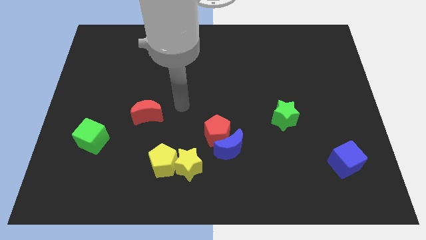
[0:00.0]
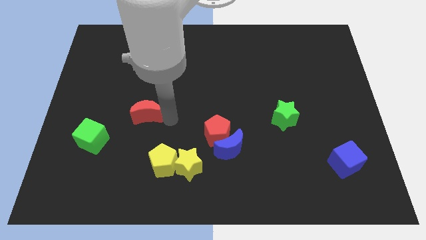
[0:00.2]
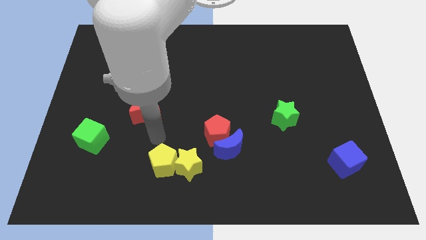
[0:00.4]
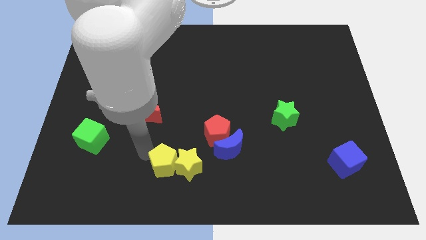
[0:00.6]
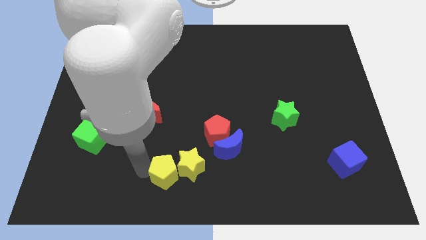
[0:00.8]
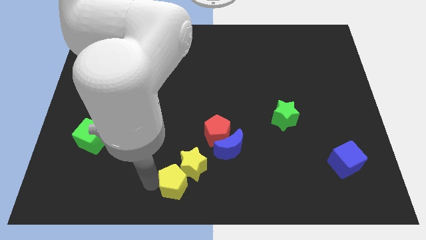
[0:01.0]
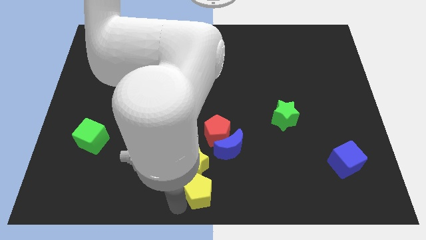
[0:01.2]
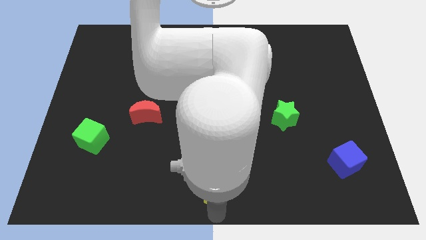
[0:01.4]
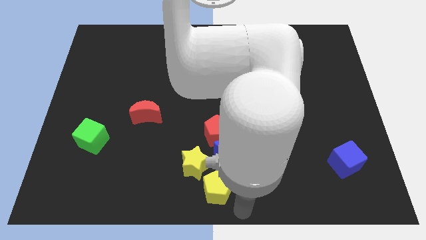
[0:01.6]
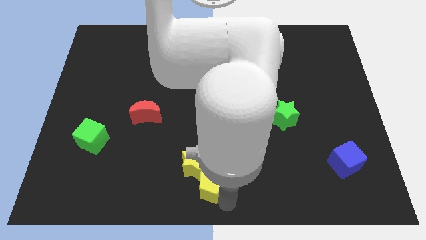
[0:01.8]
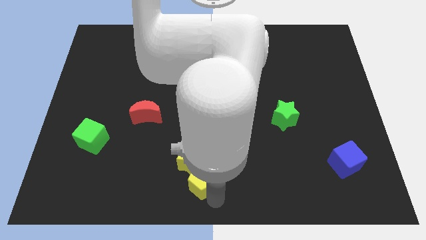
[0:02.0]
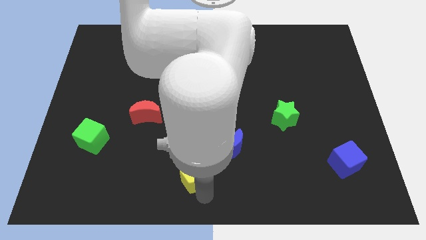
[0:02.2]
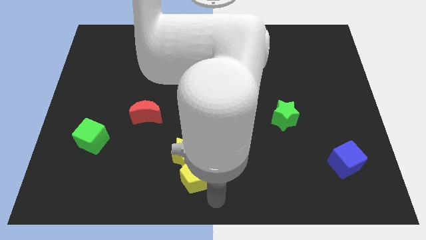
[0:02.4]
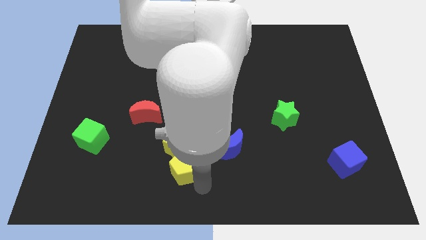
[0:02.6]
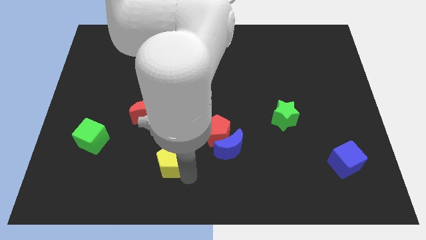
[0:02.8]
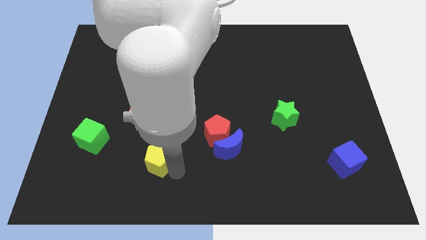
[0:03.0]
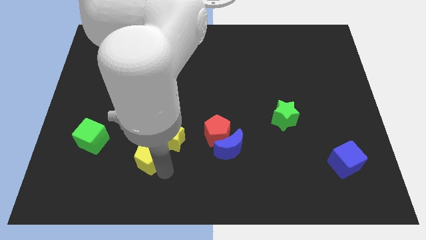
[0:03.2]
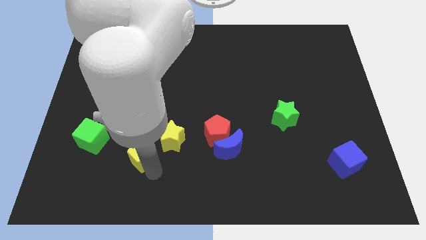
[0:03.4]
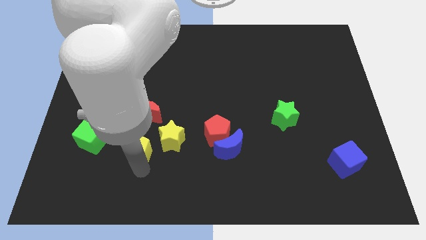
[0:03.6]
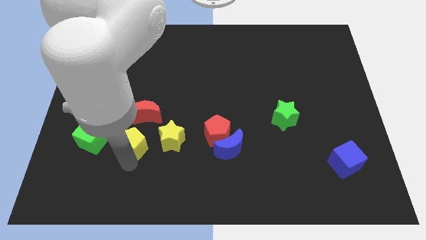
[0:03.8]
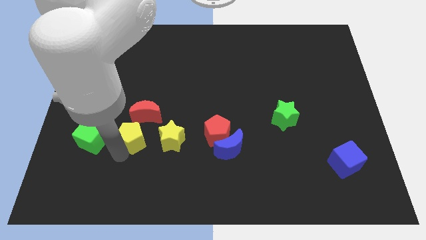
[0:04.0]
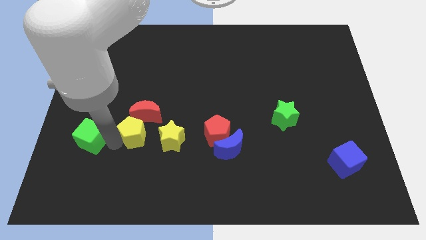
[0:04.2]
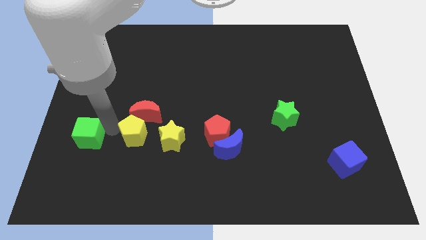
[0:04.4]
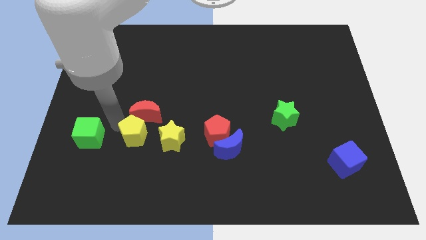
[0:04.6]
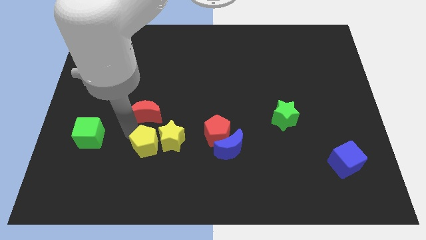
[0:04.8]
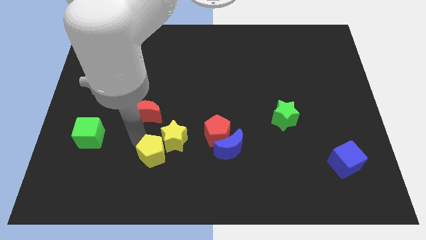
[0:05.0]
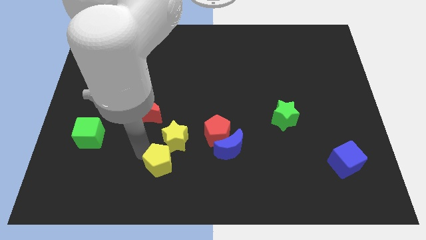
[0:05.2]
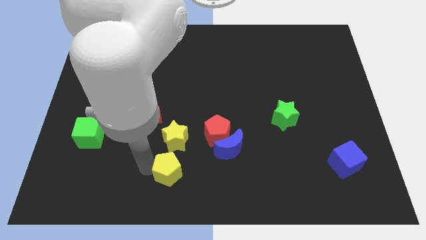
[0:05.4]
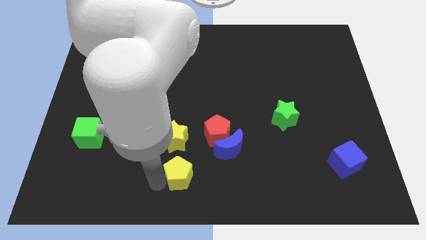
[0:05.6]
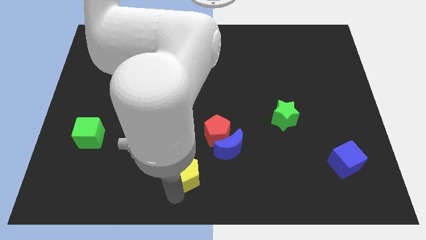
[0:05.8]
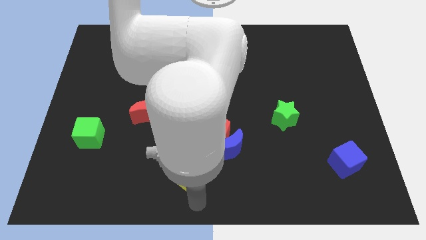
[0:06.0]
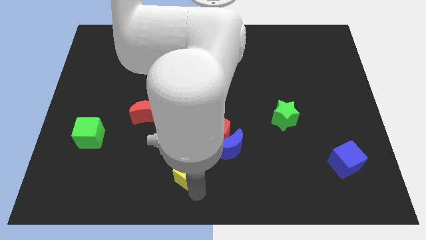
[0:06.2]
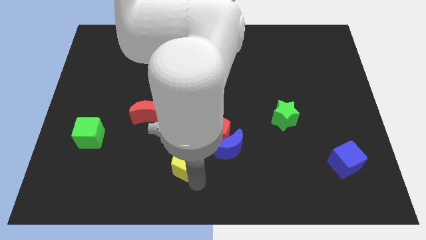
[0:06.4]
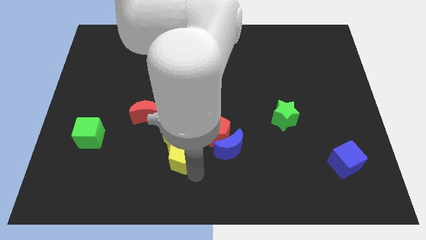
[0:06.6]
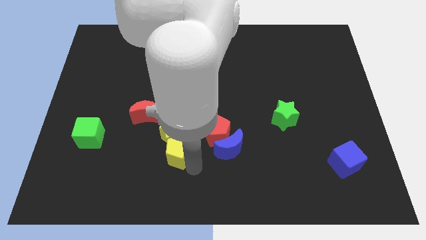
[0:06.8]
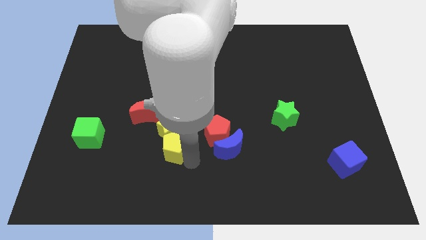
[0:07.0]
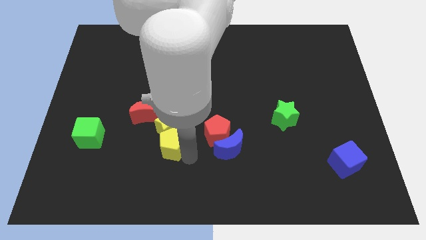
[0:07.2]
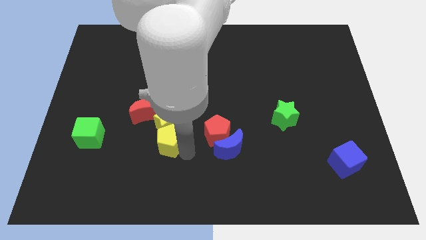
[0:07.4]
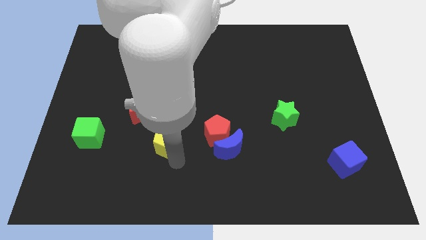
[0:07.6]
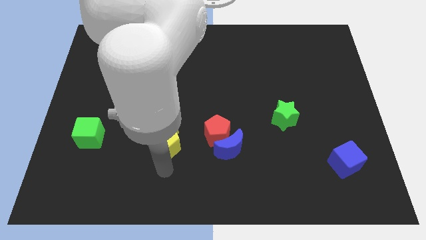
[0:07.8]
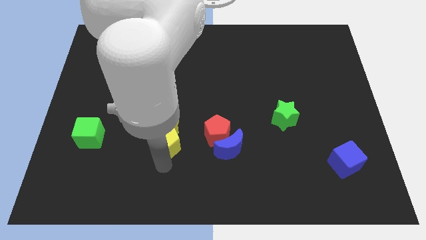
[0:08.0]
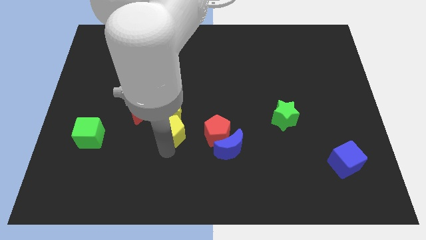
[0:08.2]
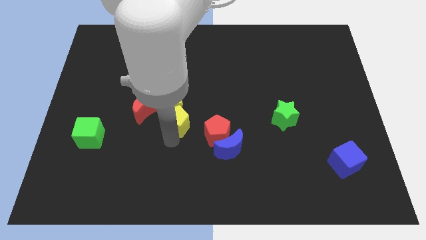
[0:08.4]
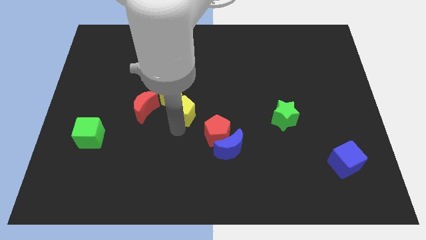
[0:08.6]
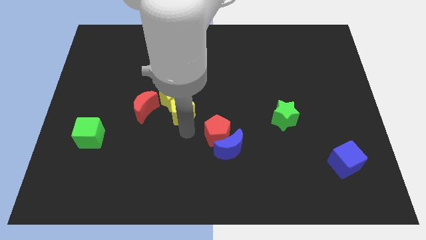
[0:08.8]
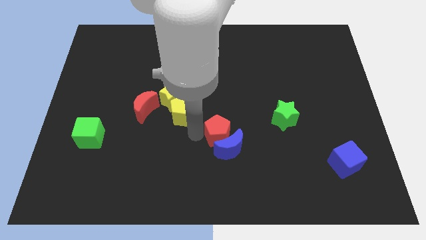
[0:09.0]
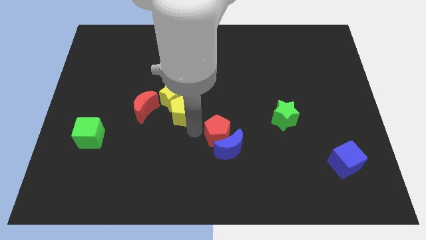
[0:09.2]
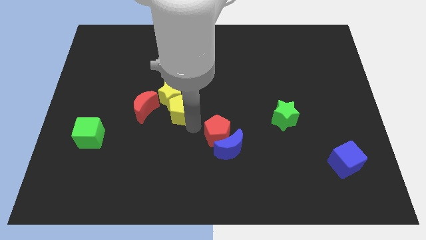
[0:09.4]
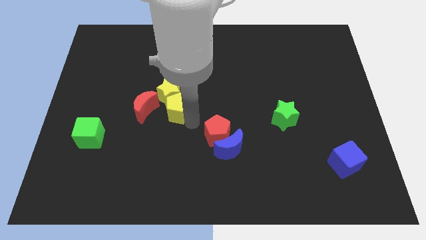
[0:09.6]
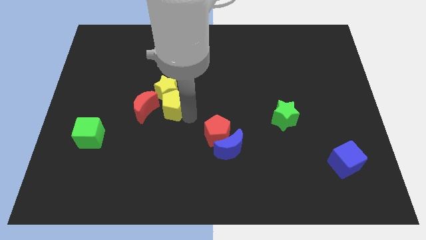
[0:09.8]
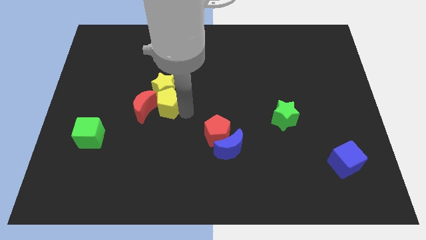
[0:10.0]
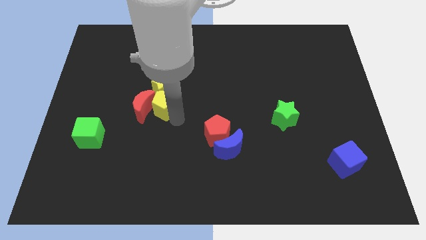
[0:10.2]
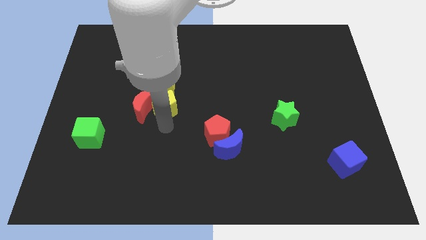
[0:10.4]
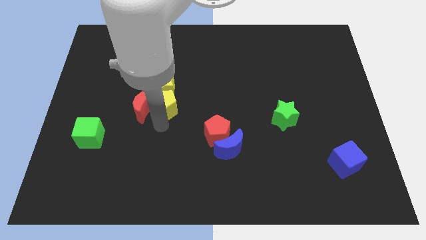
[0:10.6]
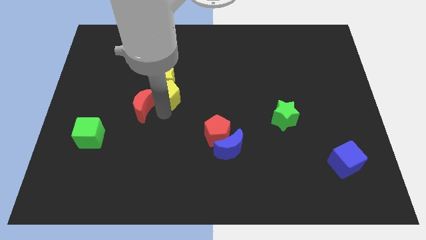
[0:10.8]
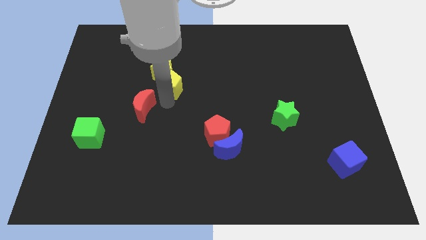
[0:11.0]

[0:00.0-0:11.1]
push the yellow pentagon up

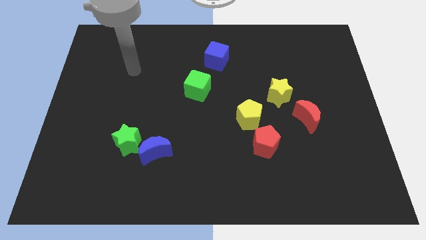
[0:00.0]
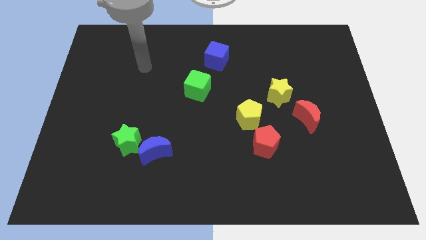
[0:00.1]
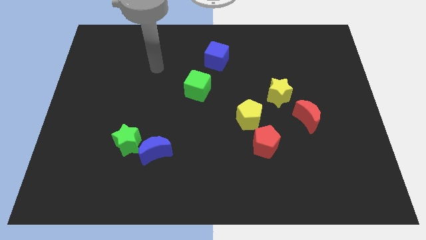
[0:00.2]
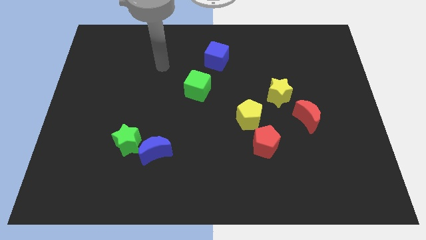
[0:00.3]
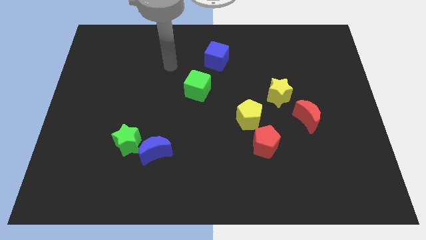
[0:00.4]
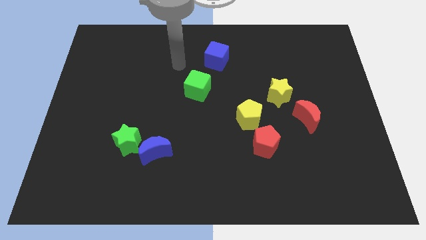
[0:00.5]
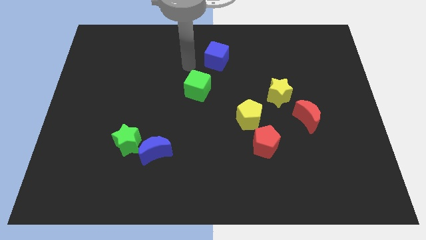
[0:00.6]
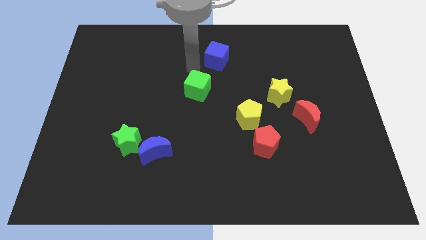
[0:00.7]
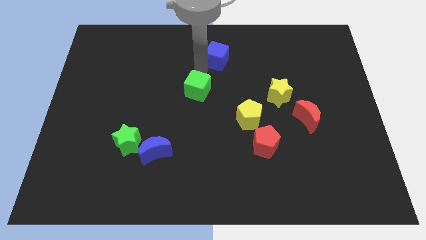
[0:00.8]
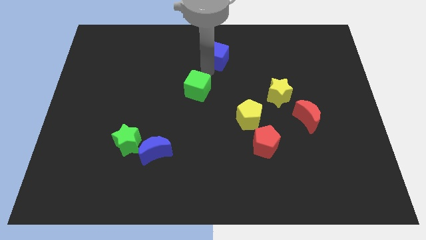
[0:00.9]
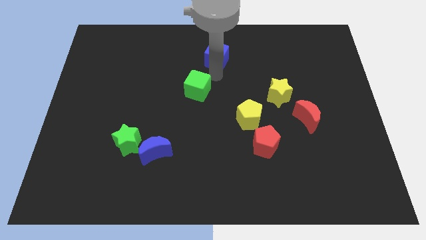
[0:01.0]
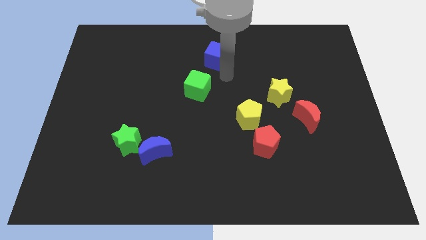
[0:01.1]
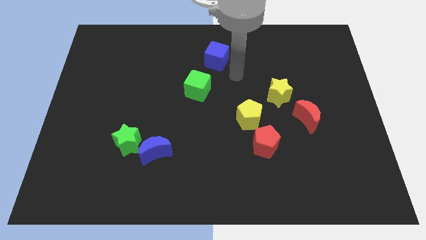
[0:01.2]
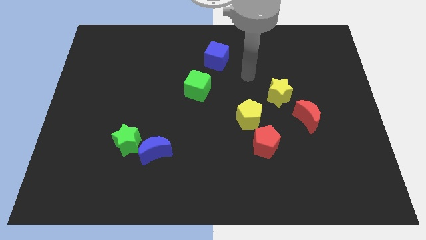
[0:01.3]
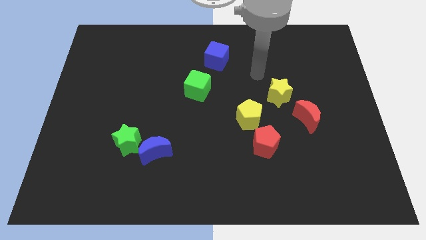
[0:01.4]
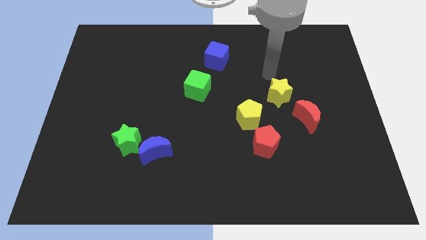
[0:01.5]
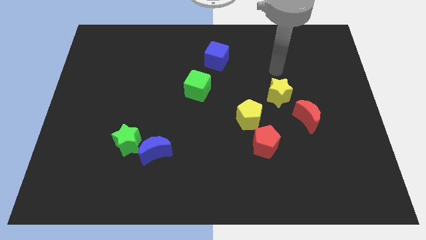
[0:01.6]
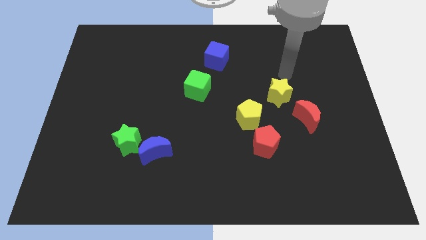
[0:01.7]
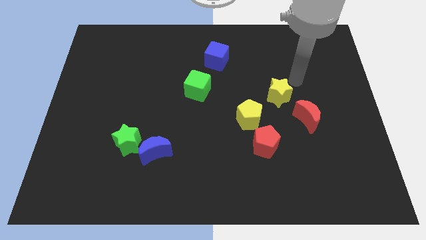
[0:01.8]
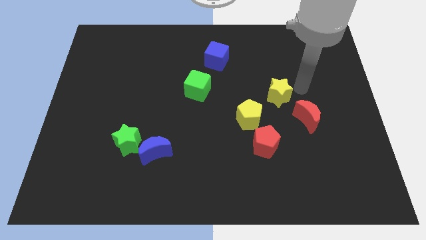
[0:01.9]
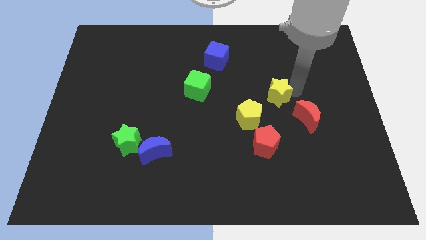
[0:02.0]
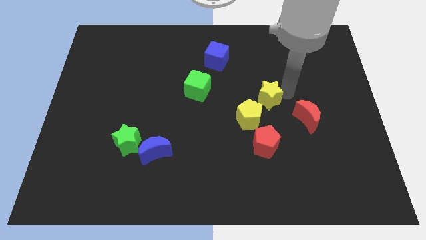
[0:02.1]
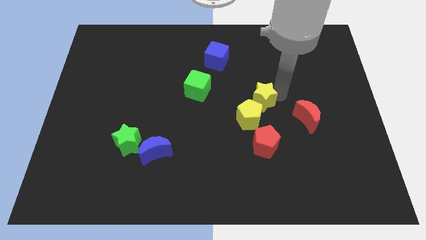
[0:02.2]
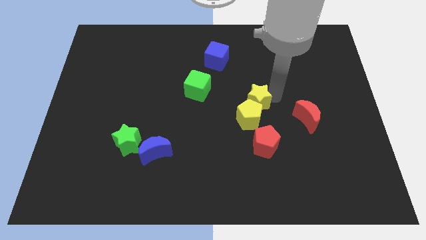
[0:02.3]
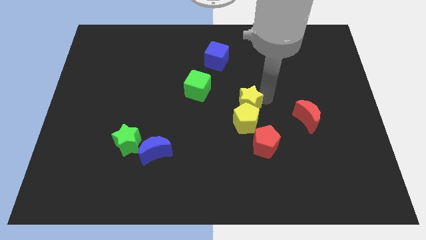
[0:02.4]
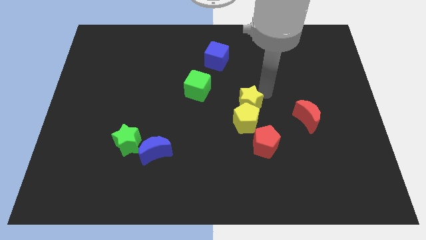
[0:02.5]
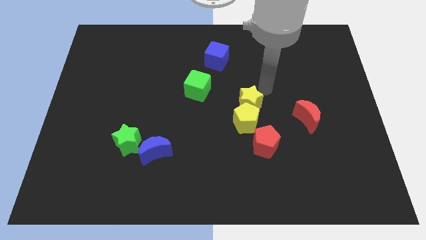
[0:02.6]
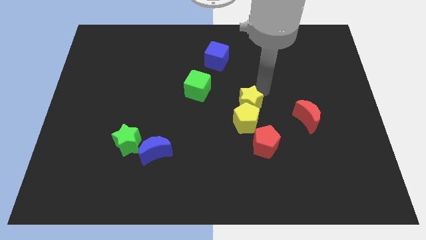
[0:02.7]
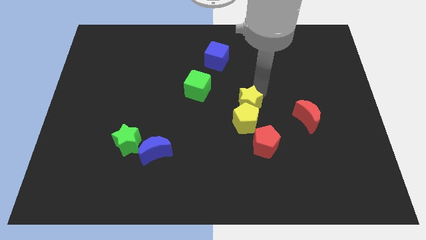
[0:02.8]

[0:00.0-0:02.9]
push the yellow star down and then to the left a little bit
